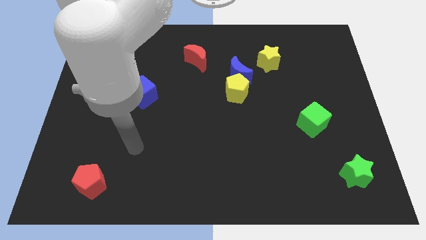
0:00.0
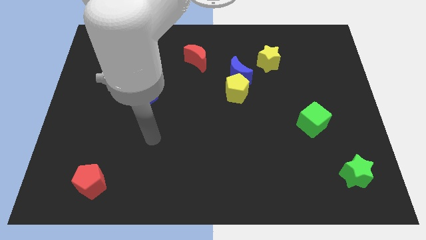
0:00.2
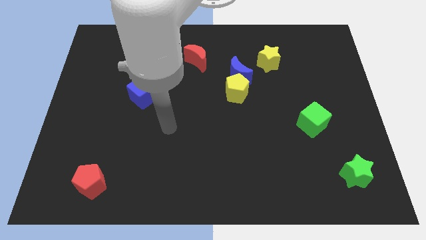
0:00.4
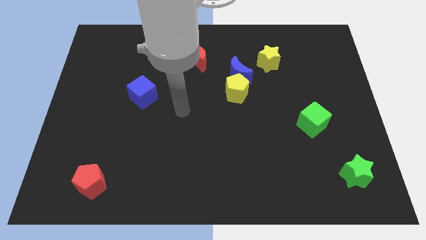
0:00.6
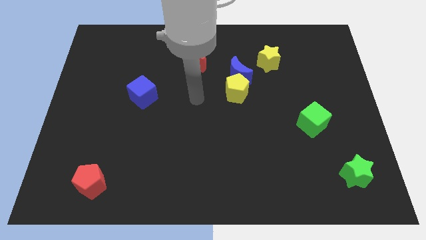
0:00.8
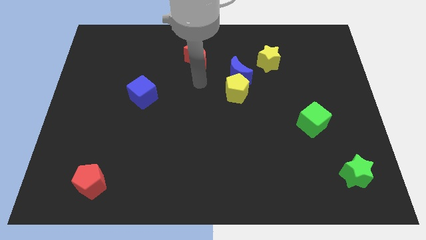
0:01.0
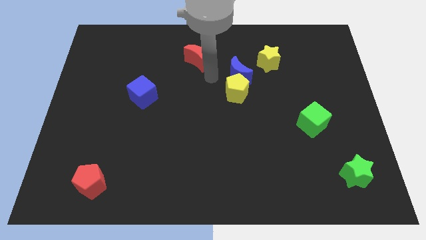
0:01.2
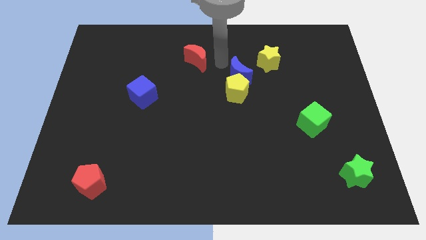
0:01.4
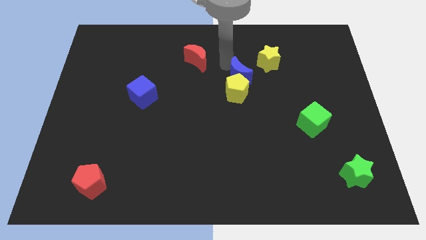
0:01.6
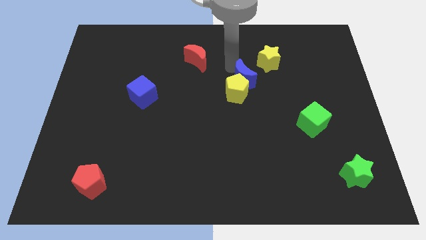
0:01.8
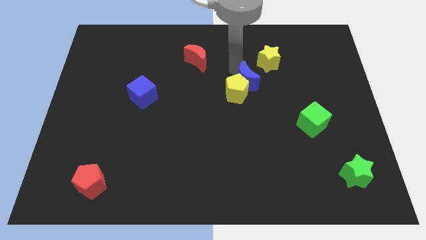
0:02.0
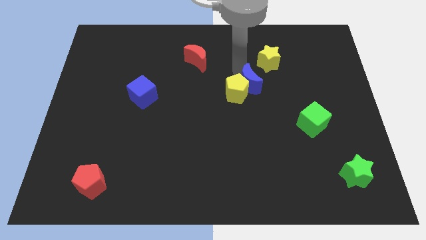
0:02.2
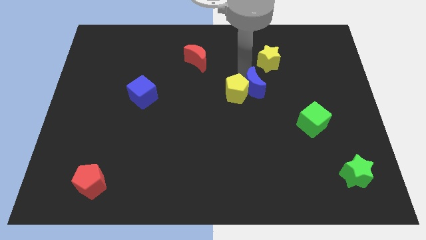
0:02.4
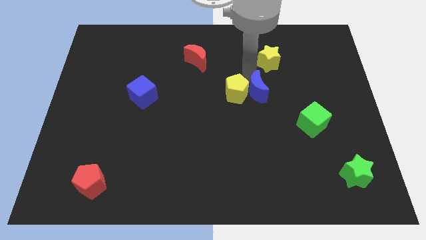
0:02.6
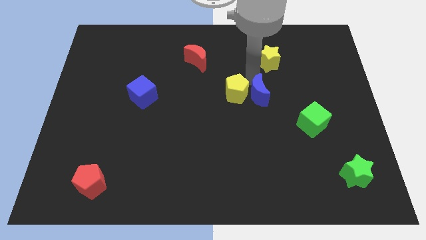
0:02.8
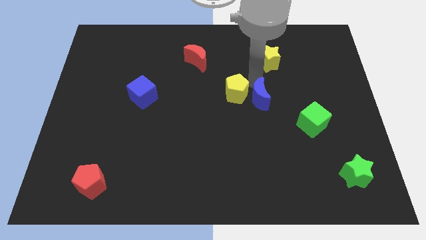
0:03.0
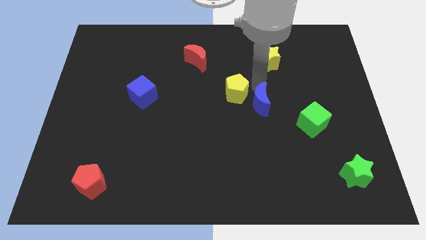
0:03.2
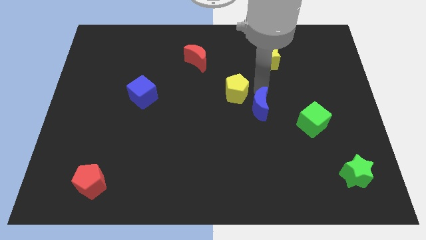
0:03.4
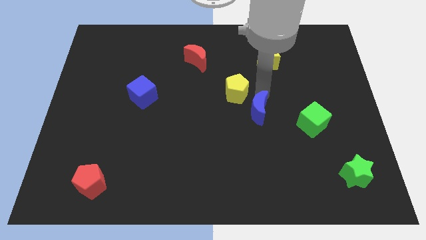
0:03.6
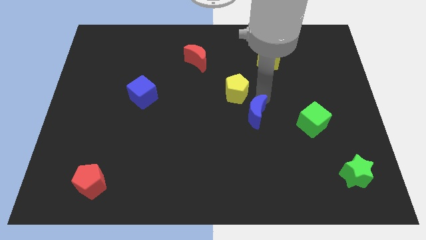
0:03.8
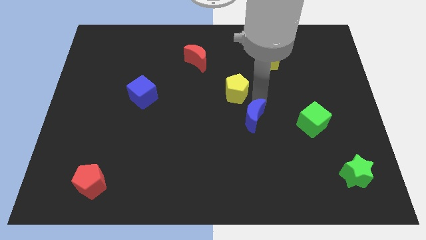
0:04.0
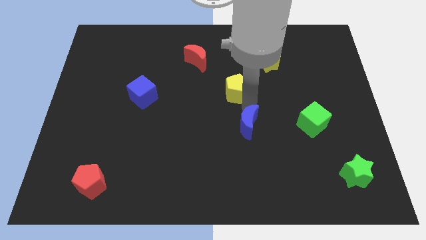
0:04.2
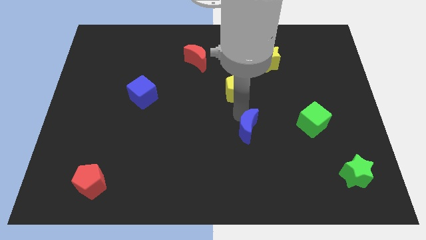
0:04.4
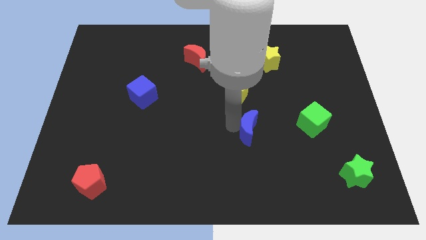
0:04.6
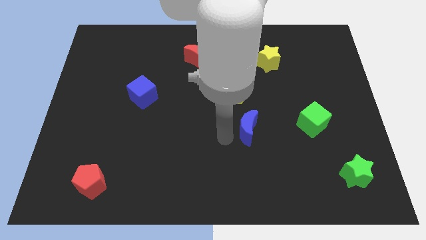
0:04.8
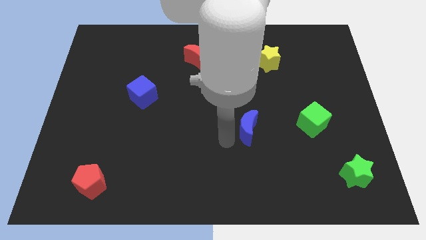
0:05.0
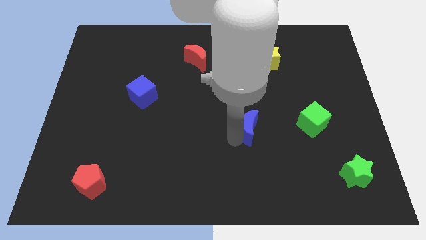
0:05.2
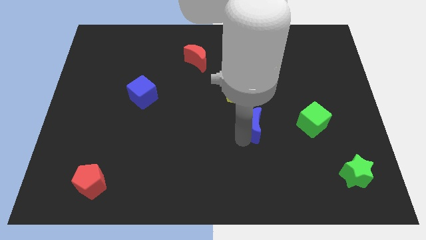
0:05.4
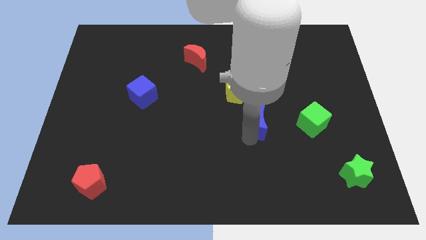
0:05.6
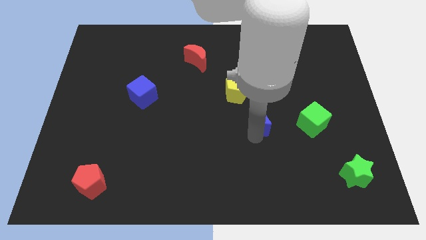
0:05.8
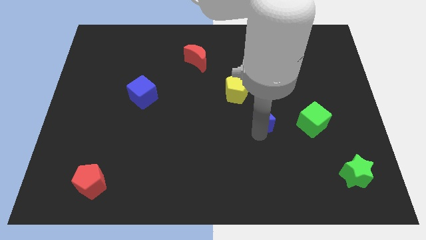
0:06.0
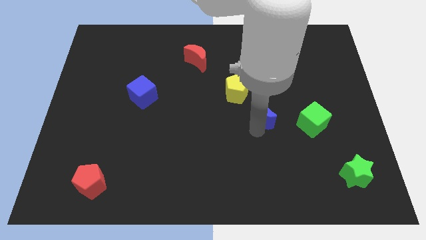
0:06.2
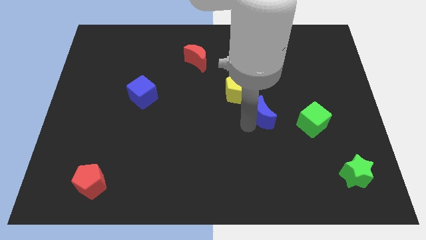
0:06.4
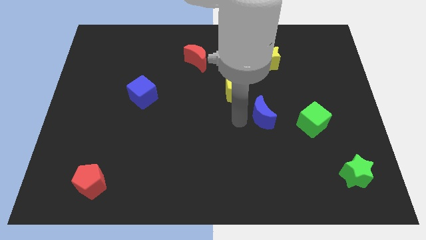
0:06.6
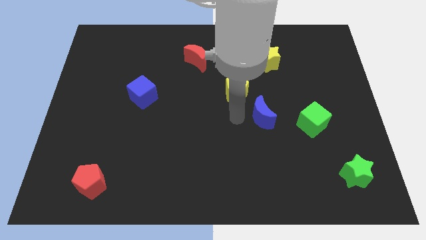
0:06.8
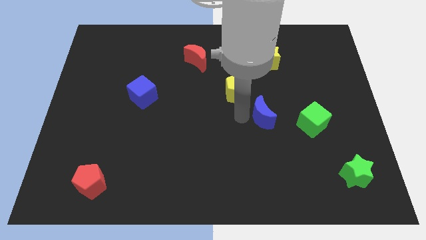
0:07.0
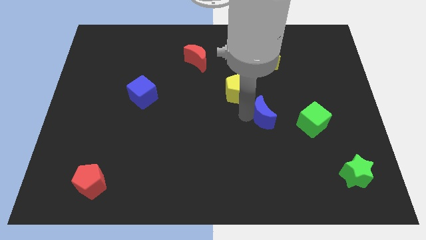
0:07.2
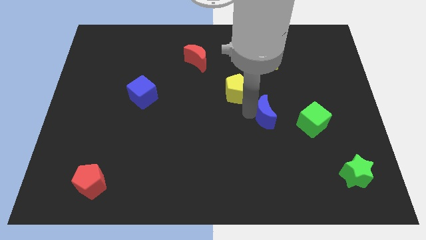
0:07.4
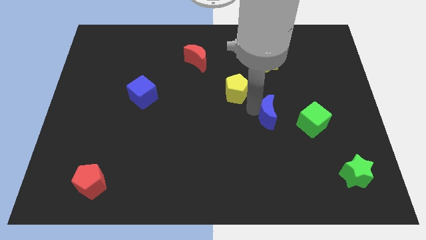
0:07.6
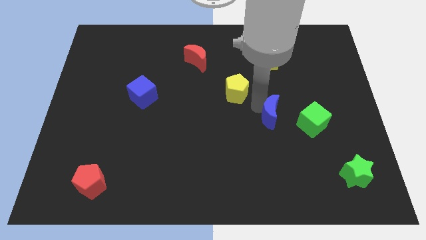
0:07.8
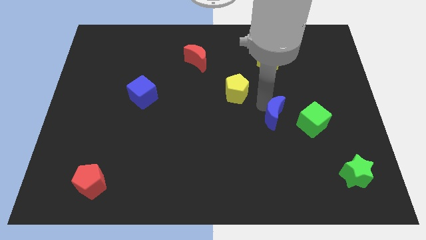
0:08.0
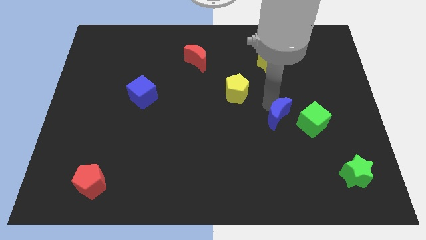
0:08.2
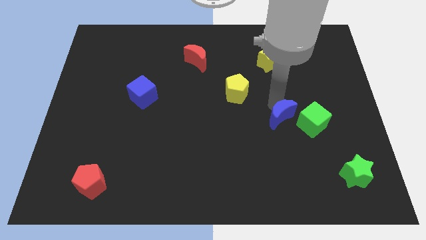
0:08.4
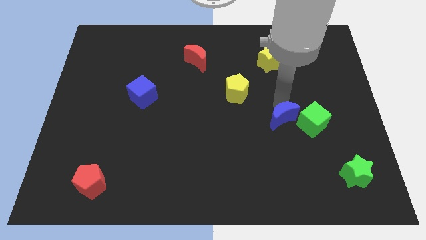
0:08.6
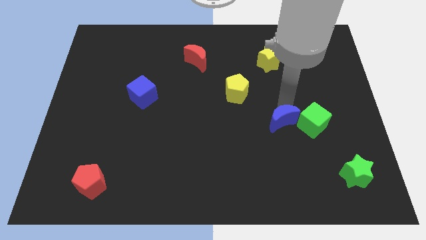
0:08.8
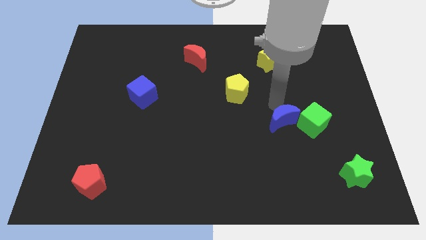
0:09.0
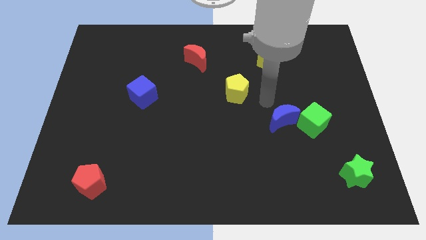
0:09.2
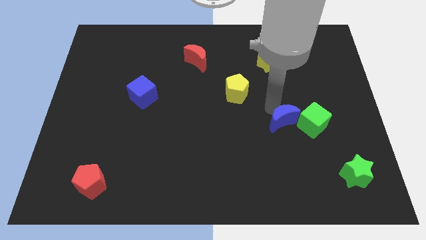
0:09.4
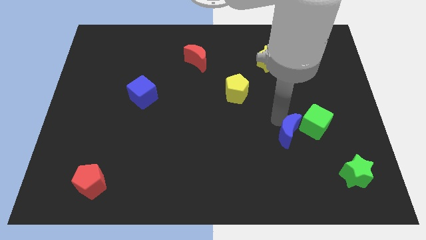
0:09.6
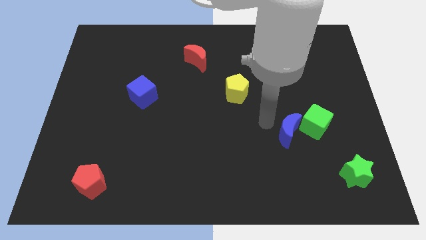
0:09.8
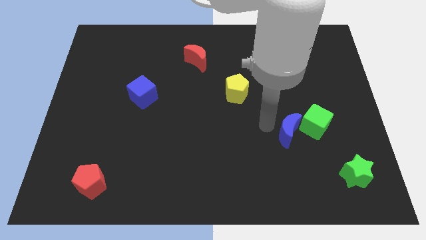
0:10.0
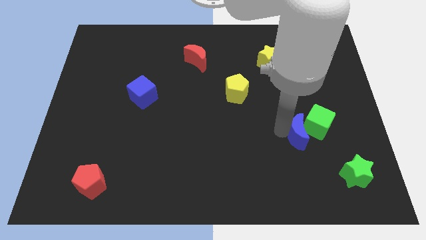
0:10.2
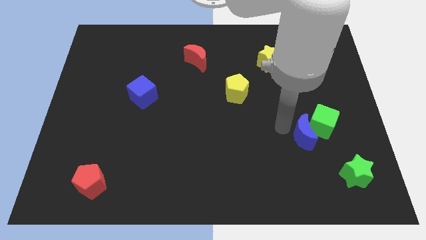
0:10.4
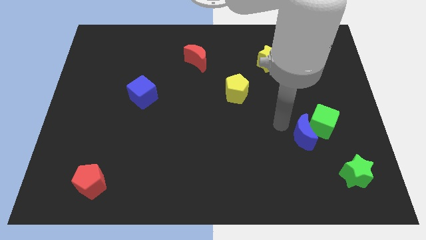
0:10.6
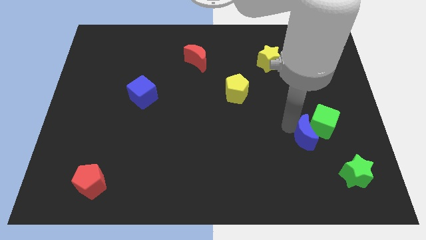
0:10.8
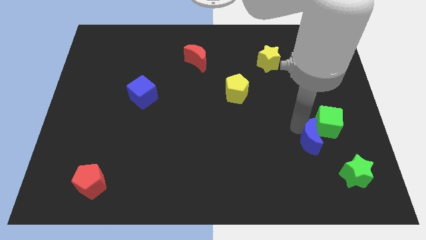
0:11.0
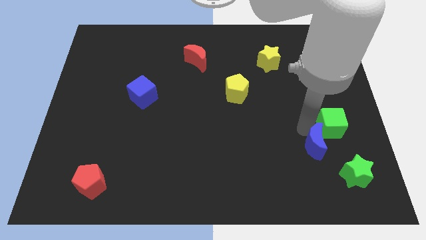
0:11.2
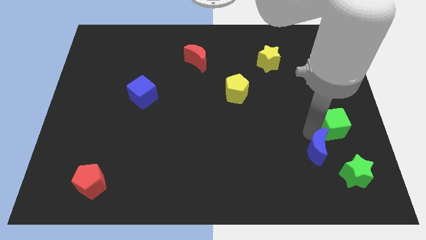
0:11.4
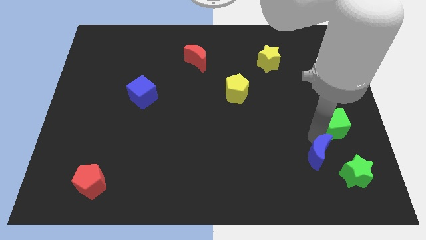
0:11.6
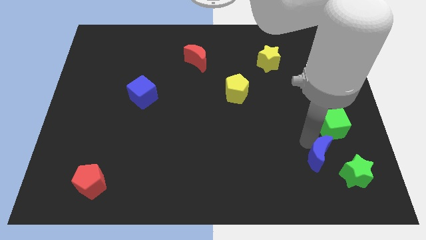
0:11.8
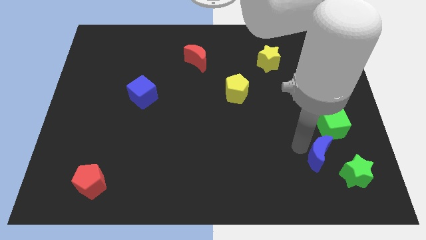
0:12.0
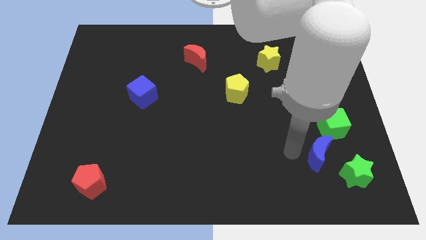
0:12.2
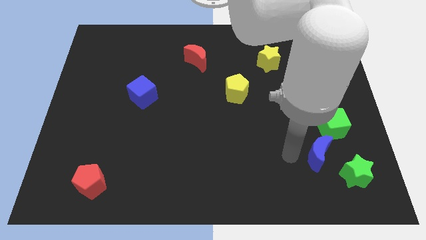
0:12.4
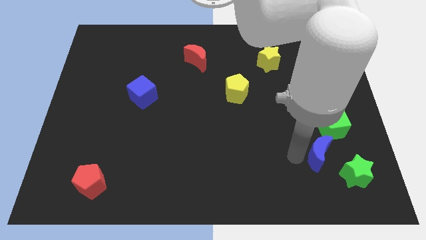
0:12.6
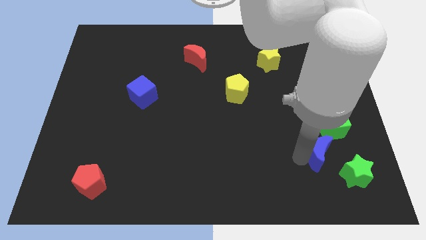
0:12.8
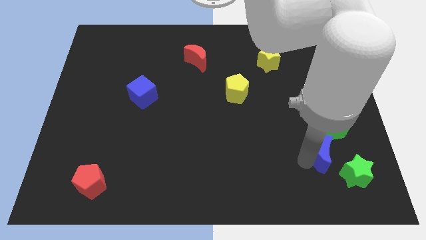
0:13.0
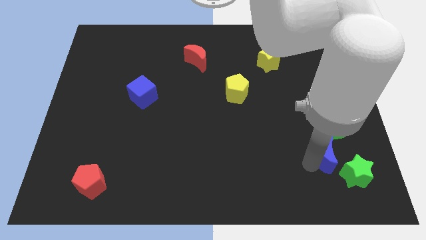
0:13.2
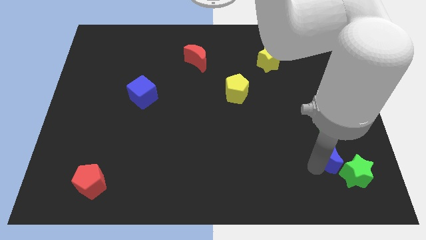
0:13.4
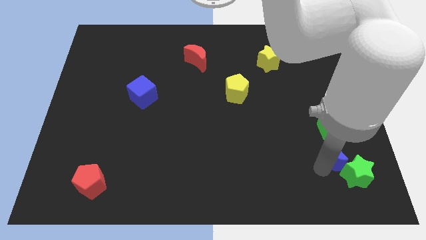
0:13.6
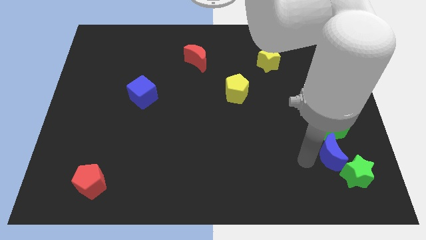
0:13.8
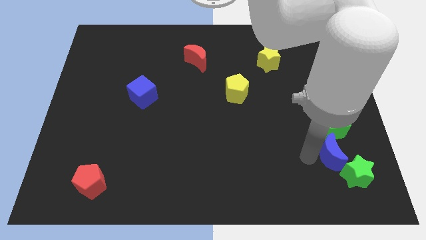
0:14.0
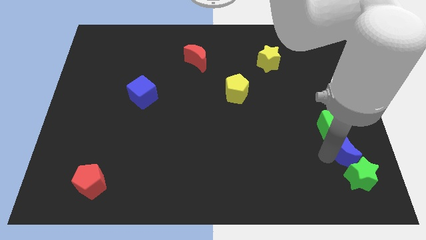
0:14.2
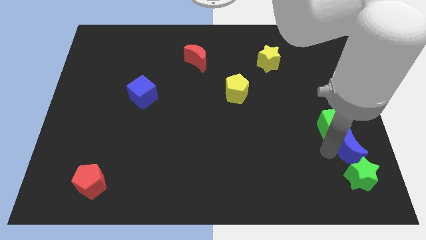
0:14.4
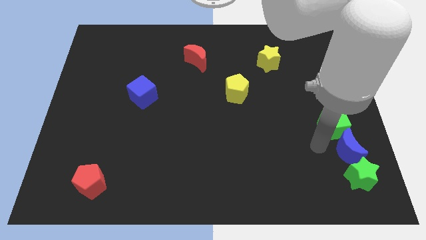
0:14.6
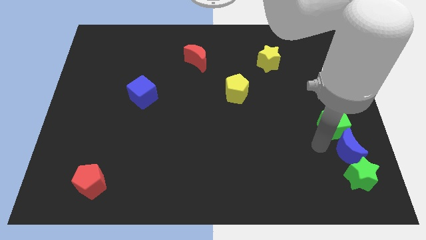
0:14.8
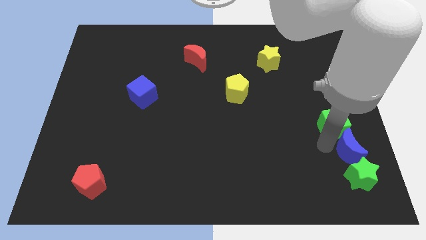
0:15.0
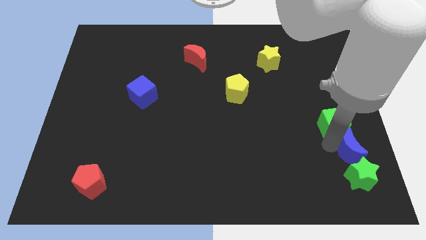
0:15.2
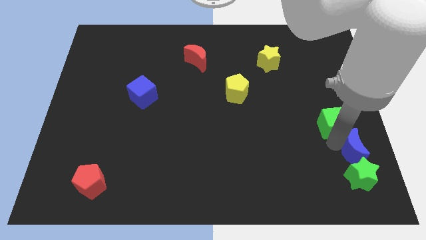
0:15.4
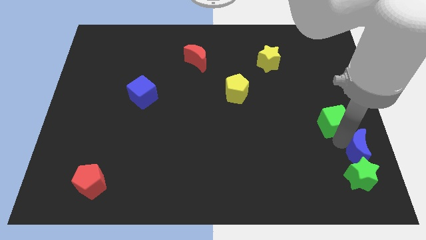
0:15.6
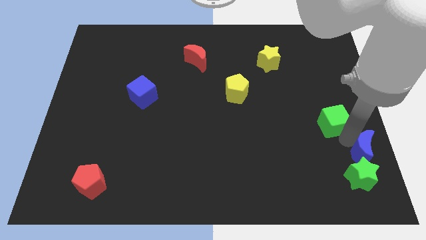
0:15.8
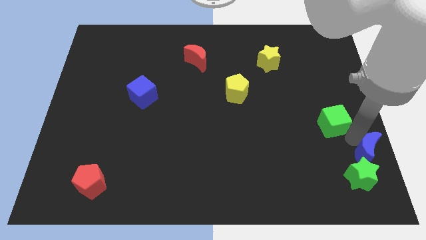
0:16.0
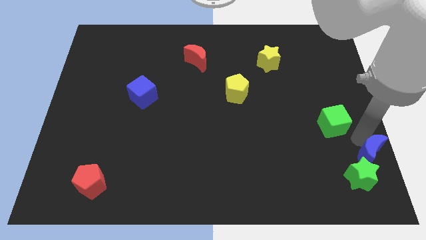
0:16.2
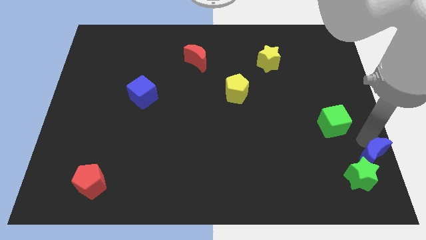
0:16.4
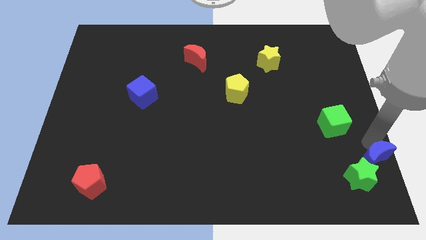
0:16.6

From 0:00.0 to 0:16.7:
put the blue moon to the bottom right
